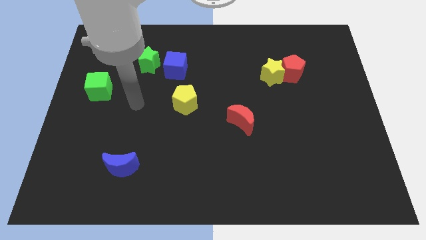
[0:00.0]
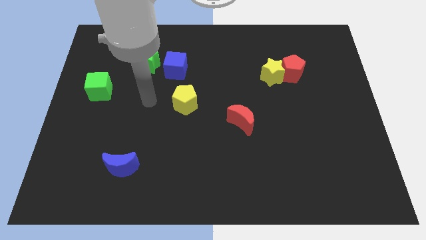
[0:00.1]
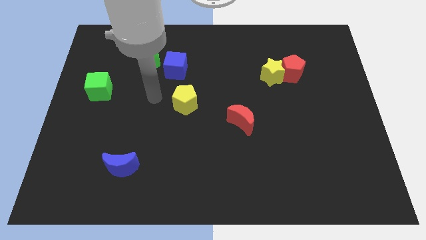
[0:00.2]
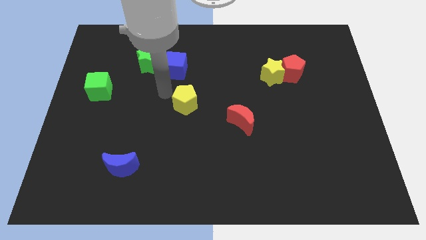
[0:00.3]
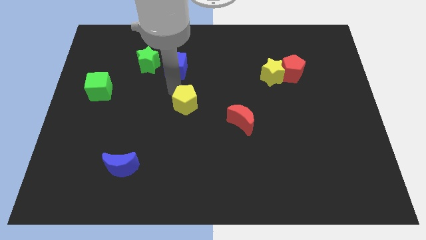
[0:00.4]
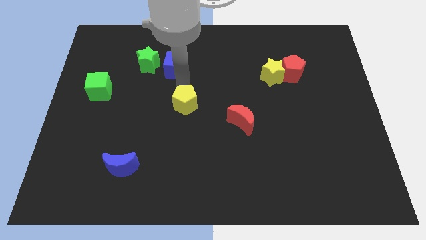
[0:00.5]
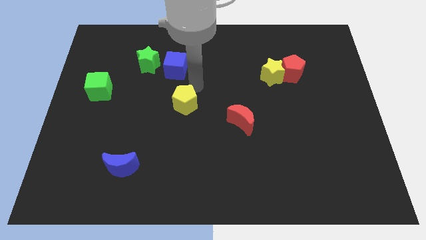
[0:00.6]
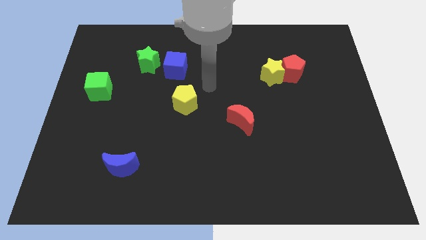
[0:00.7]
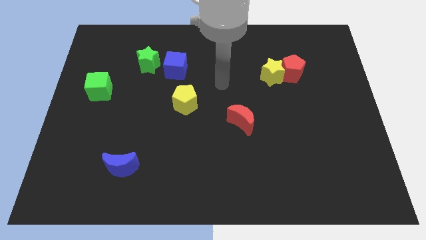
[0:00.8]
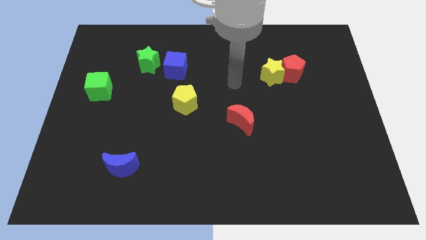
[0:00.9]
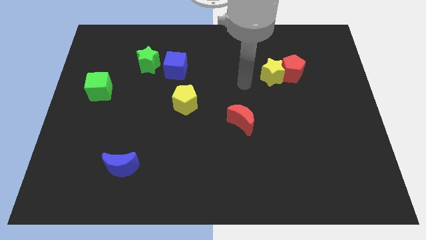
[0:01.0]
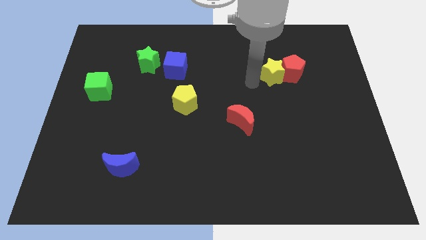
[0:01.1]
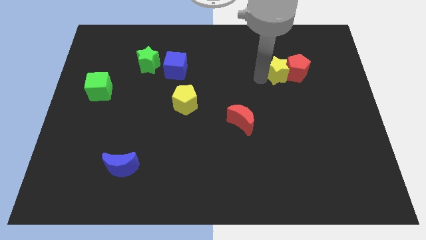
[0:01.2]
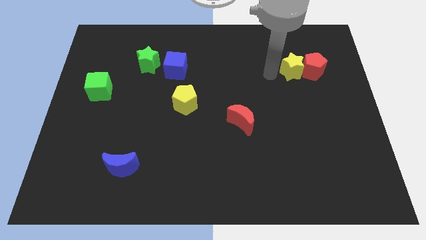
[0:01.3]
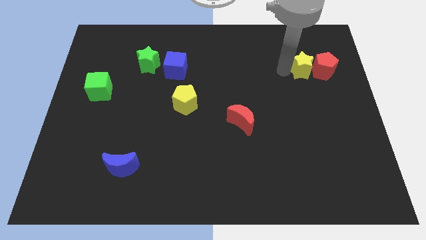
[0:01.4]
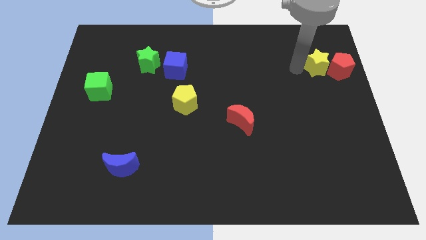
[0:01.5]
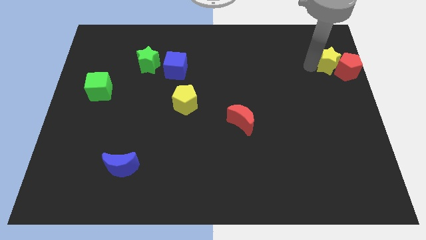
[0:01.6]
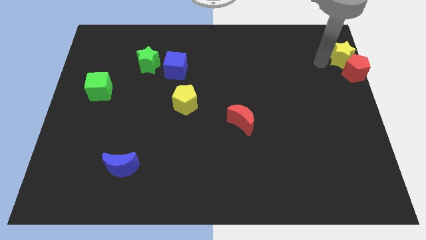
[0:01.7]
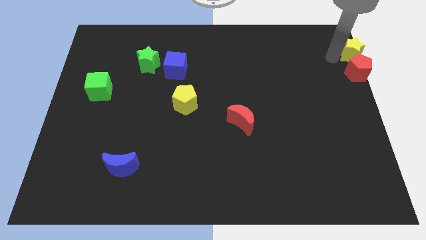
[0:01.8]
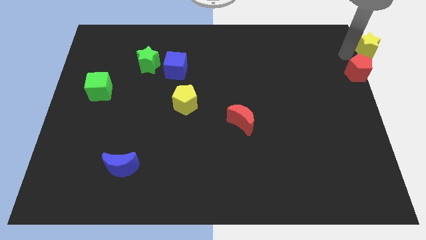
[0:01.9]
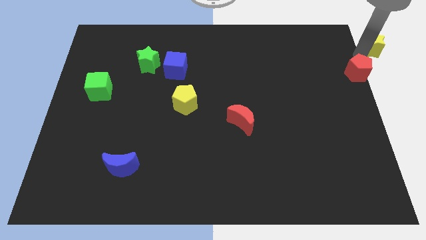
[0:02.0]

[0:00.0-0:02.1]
separate the red pentagon from the yellow star

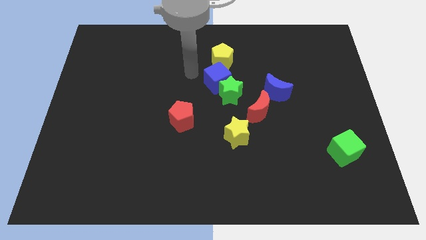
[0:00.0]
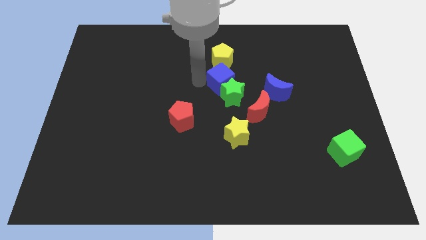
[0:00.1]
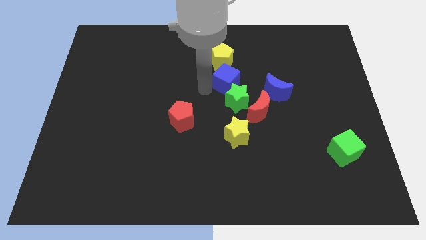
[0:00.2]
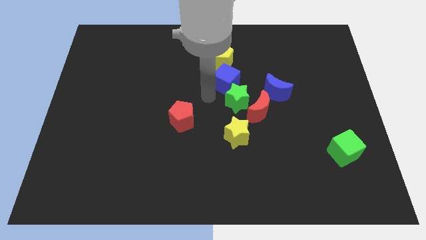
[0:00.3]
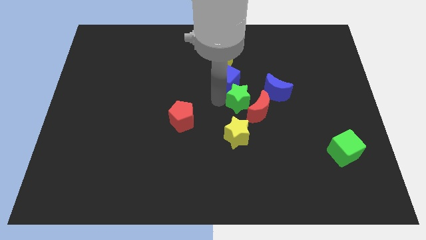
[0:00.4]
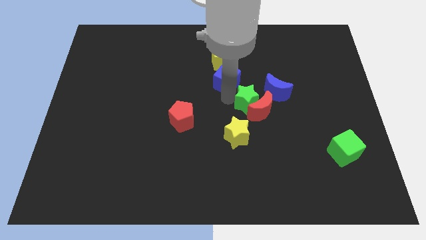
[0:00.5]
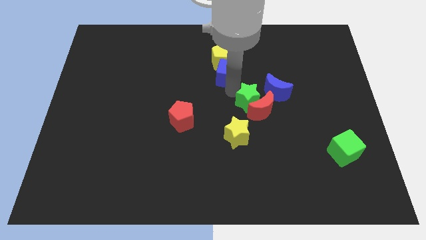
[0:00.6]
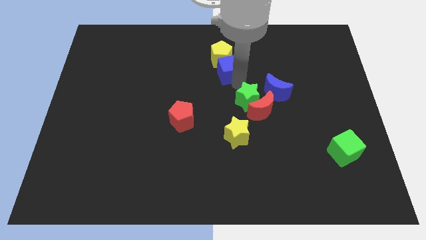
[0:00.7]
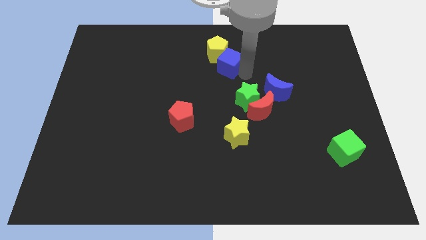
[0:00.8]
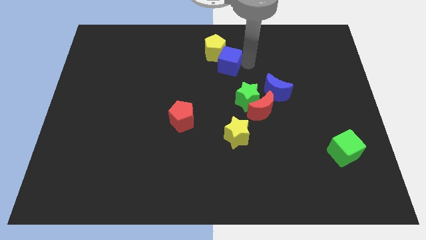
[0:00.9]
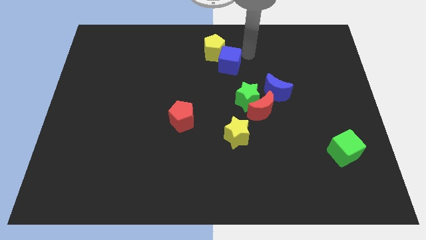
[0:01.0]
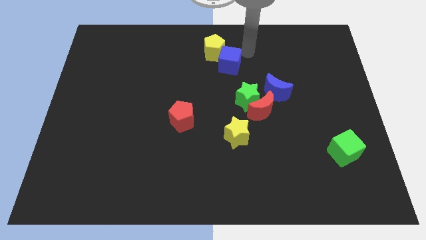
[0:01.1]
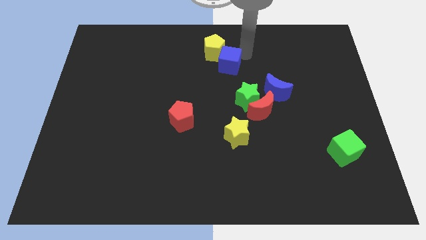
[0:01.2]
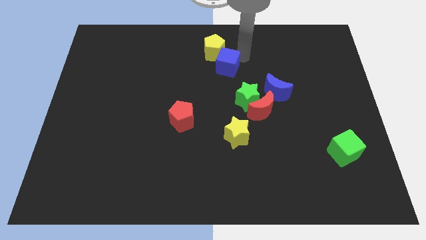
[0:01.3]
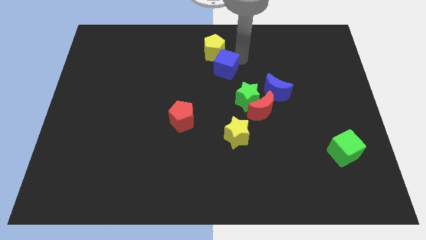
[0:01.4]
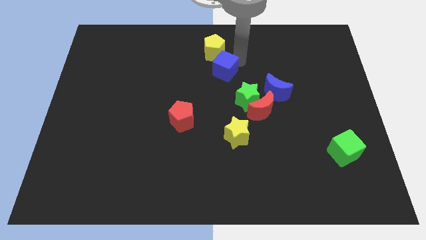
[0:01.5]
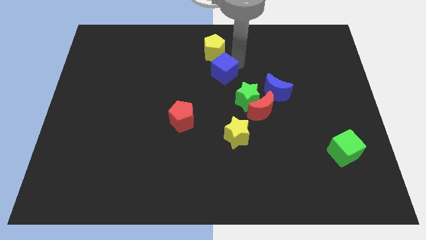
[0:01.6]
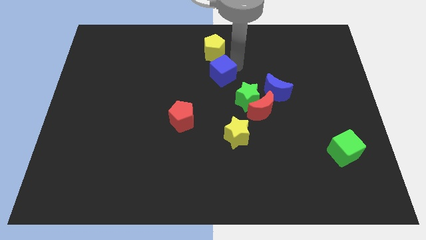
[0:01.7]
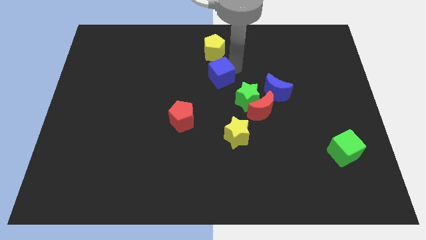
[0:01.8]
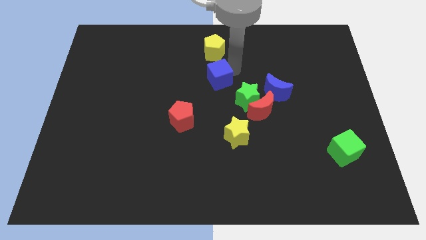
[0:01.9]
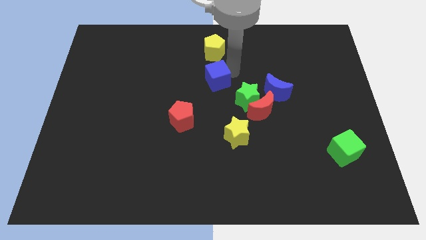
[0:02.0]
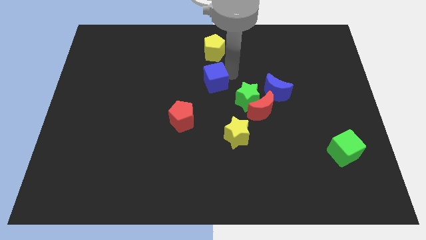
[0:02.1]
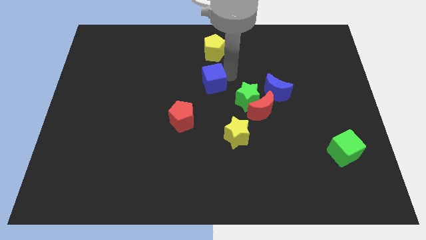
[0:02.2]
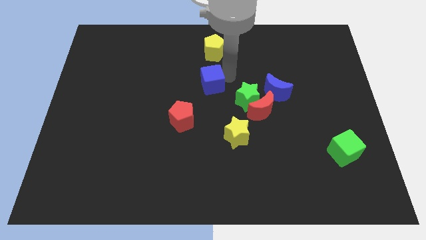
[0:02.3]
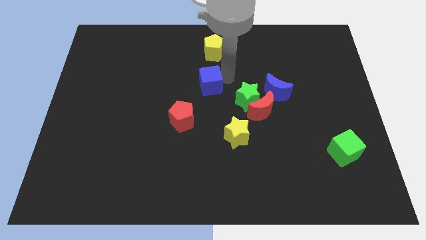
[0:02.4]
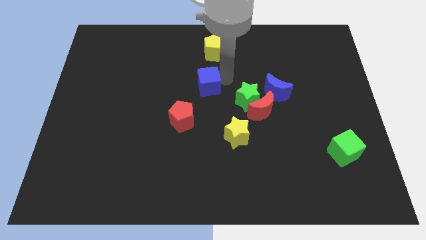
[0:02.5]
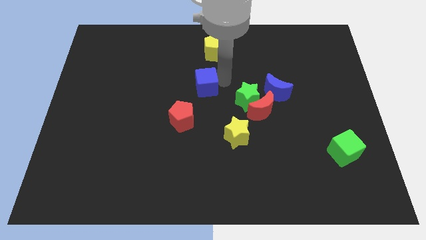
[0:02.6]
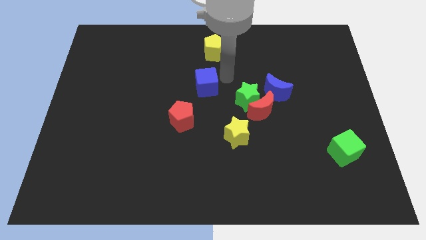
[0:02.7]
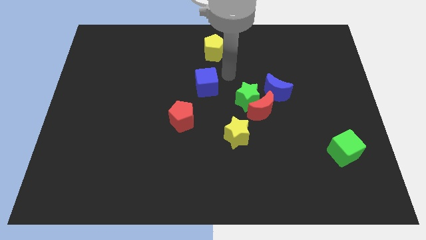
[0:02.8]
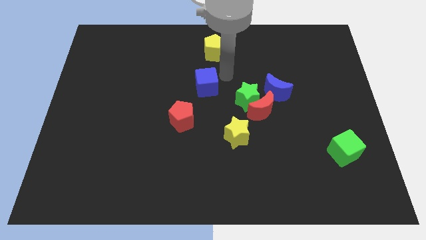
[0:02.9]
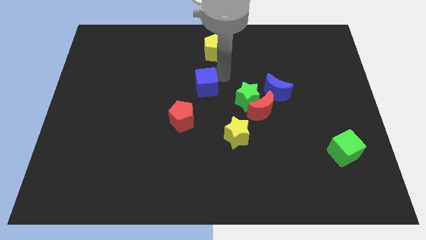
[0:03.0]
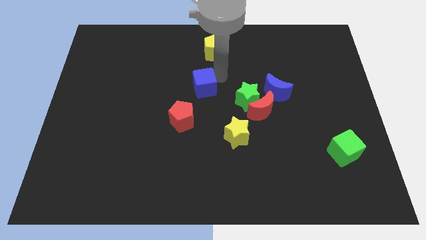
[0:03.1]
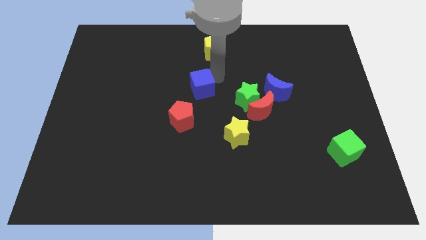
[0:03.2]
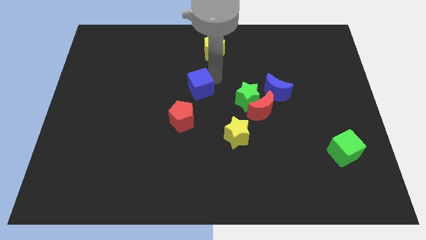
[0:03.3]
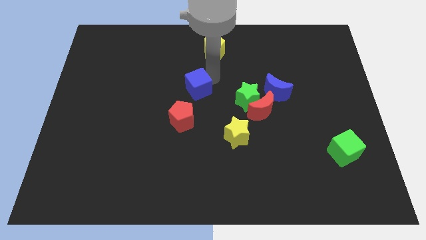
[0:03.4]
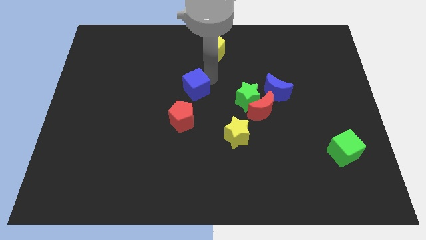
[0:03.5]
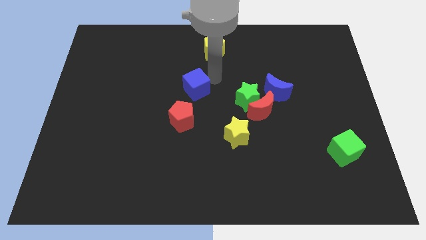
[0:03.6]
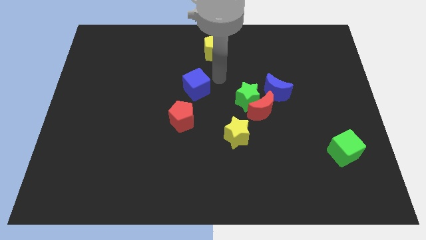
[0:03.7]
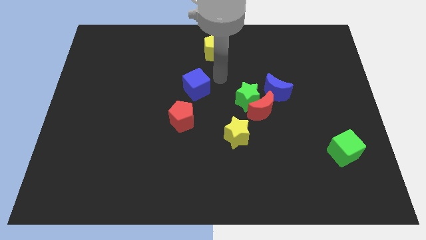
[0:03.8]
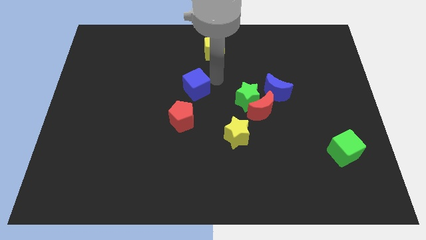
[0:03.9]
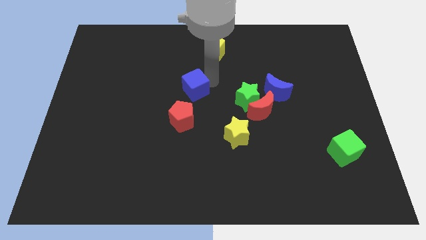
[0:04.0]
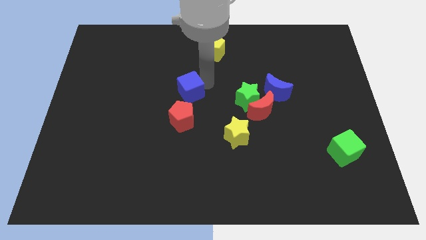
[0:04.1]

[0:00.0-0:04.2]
separate the blue cube from the green star and yellow pentagon

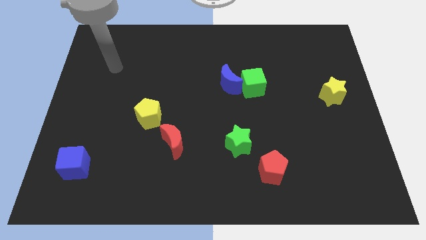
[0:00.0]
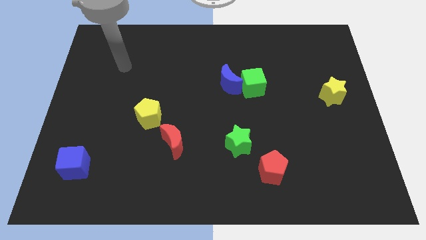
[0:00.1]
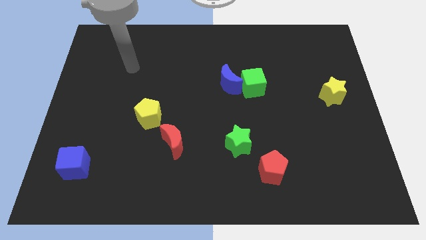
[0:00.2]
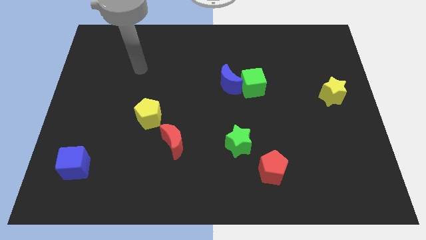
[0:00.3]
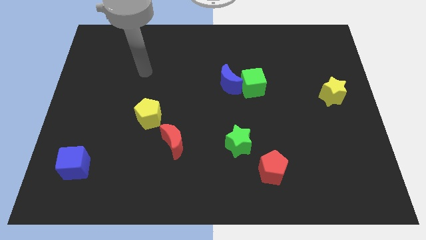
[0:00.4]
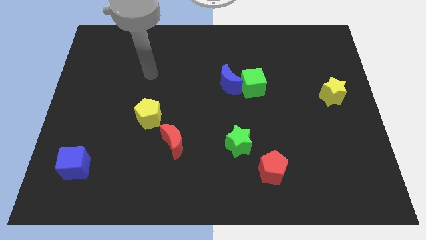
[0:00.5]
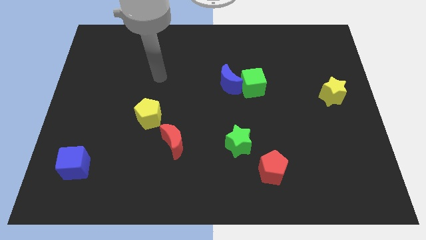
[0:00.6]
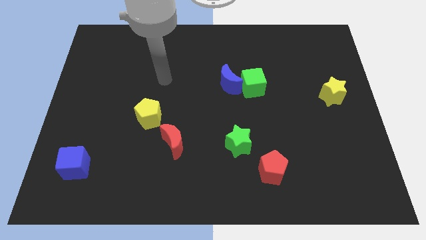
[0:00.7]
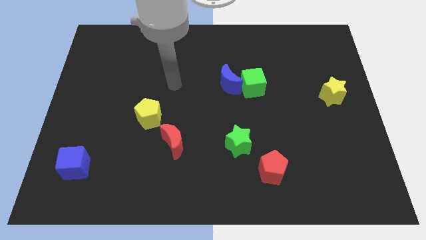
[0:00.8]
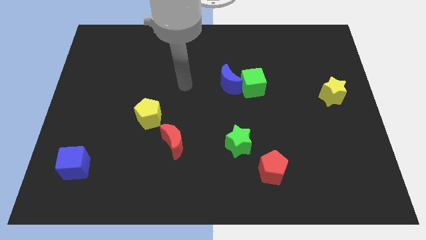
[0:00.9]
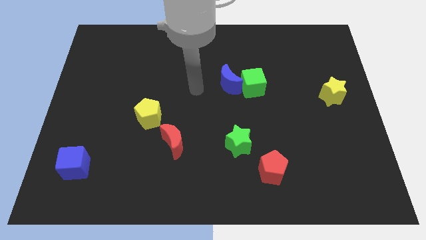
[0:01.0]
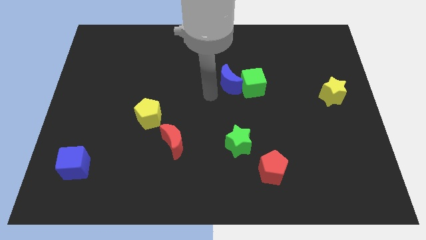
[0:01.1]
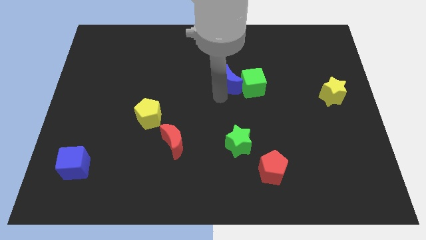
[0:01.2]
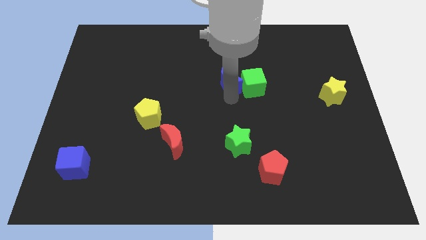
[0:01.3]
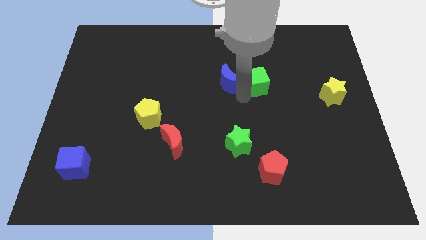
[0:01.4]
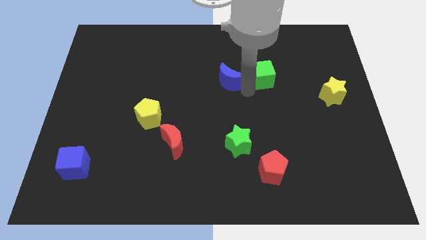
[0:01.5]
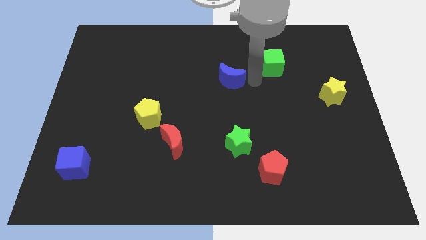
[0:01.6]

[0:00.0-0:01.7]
move the blue moon away from the green cube

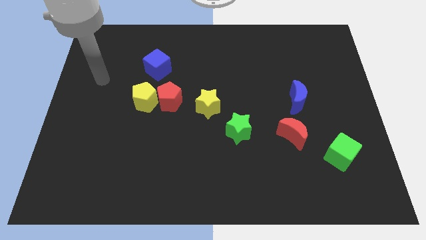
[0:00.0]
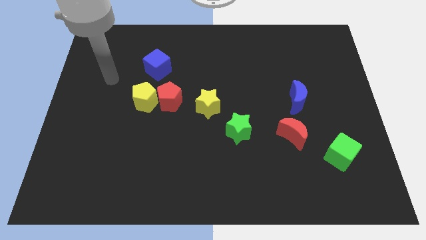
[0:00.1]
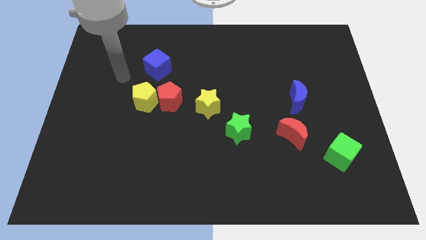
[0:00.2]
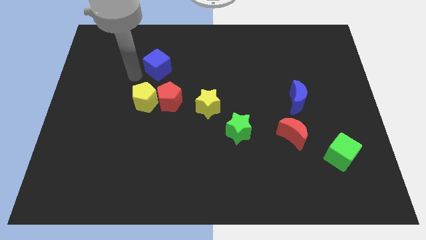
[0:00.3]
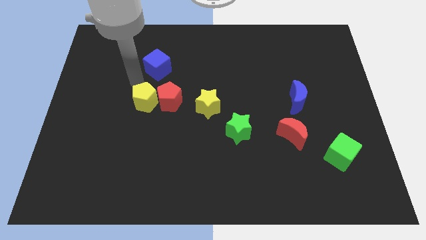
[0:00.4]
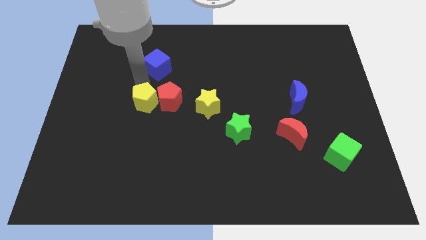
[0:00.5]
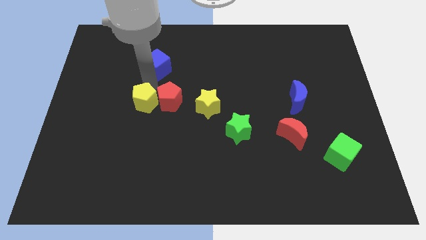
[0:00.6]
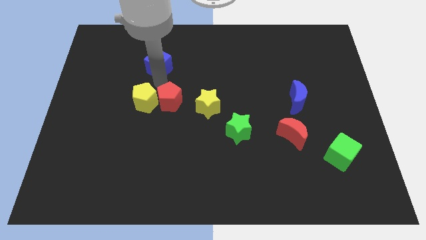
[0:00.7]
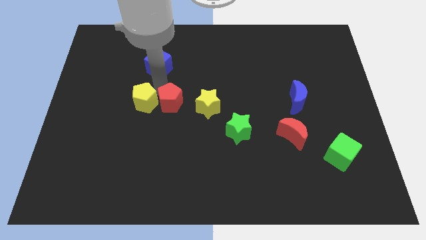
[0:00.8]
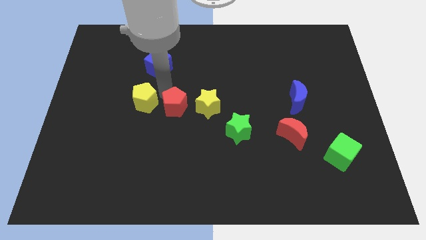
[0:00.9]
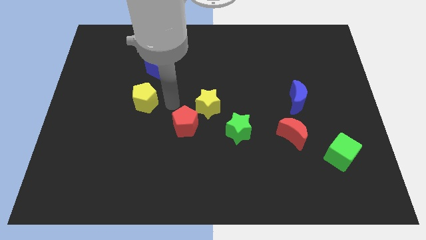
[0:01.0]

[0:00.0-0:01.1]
separate the yellow pentagon from the red pentagon

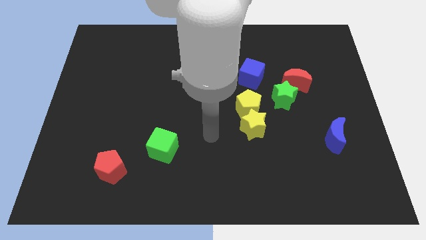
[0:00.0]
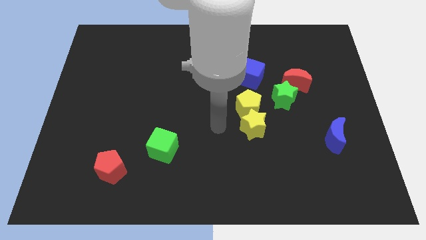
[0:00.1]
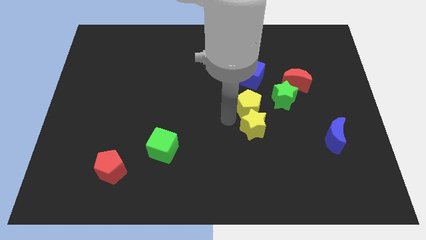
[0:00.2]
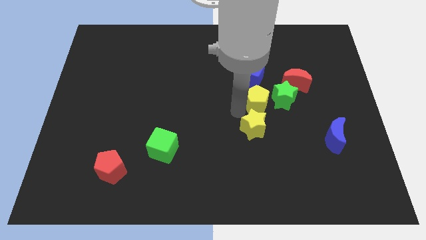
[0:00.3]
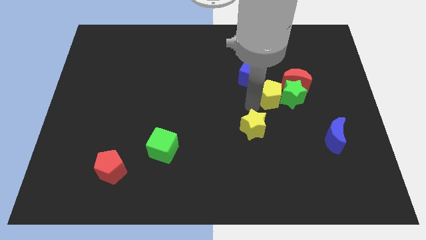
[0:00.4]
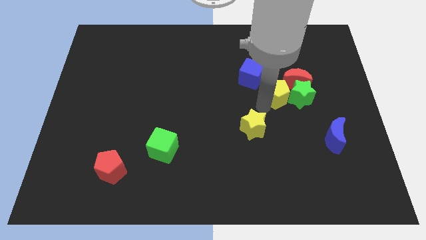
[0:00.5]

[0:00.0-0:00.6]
separate the yellow star from the yellow pentagon
